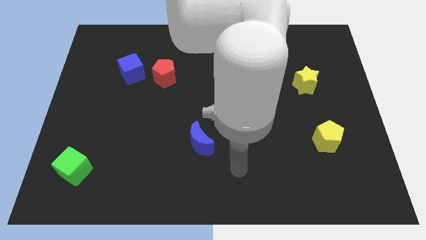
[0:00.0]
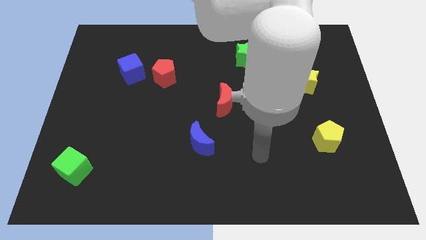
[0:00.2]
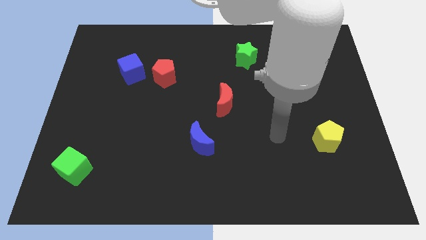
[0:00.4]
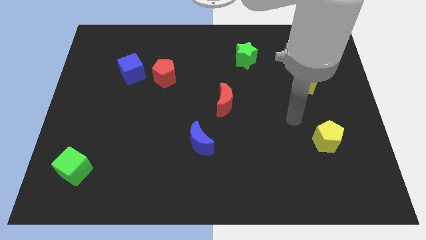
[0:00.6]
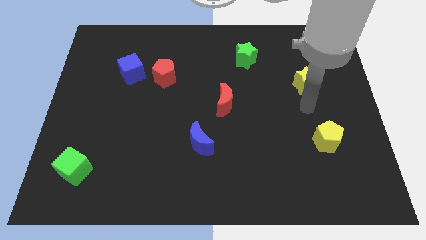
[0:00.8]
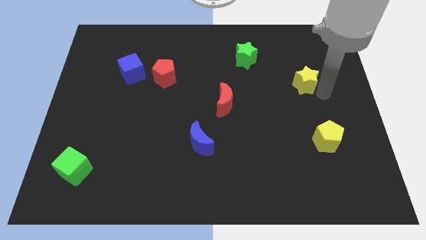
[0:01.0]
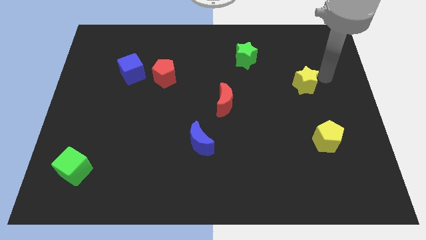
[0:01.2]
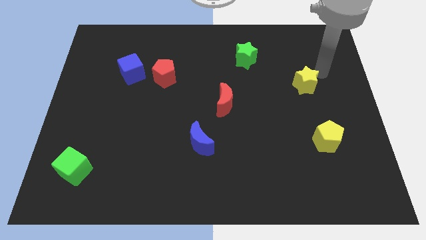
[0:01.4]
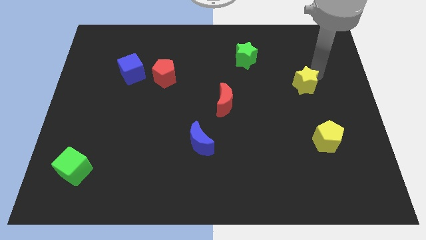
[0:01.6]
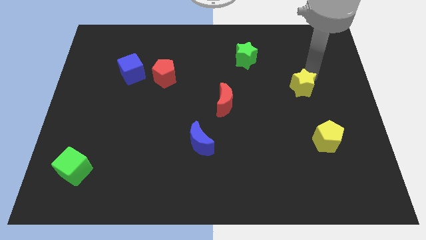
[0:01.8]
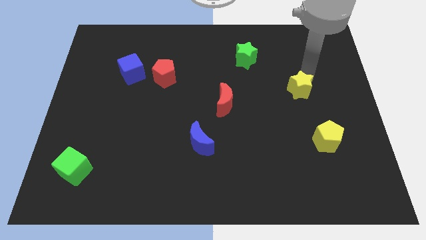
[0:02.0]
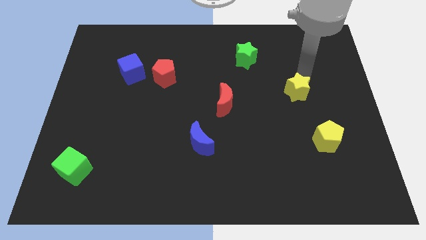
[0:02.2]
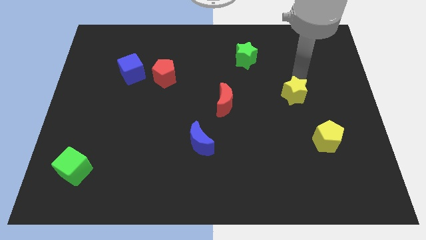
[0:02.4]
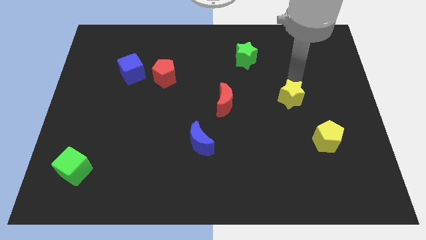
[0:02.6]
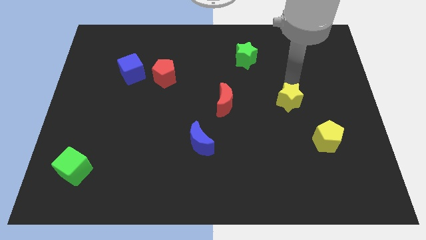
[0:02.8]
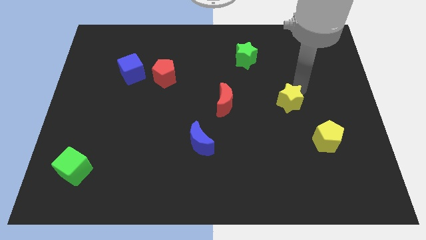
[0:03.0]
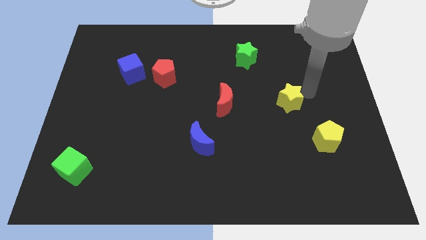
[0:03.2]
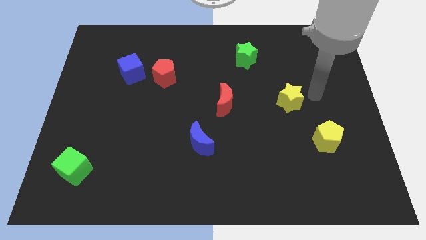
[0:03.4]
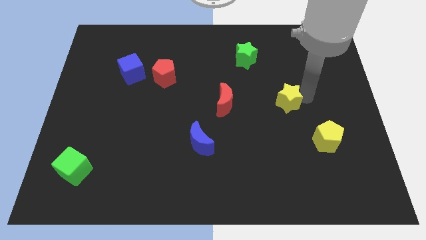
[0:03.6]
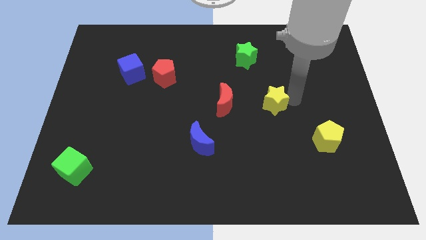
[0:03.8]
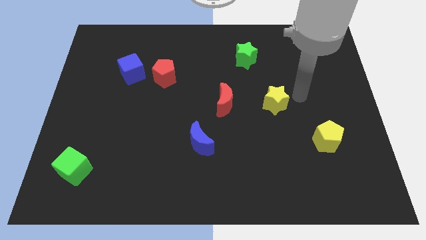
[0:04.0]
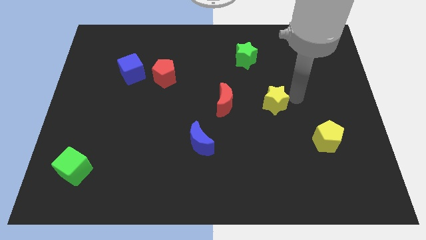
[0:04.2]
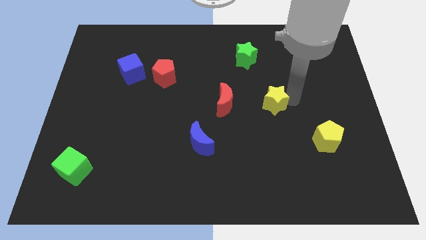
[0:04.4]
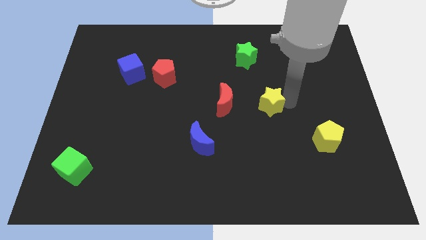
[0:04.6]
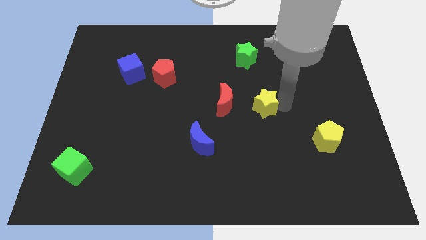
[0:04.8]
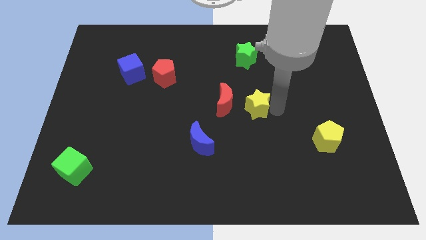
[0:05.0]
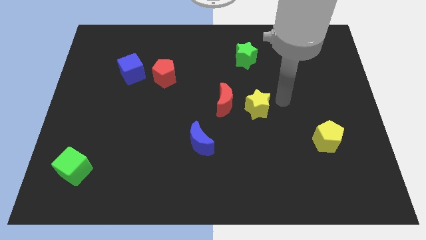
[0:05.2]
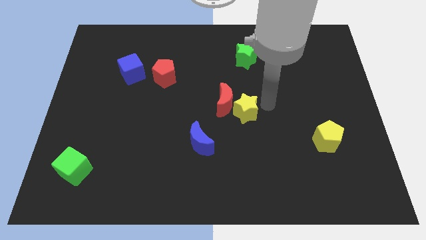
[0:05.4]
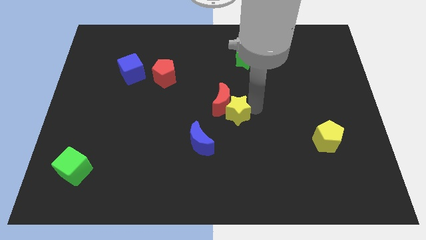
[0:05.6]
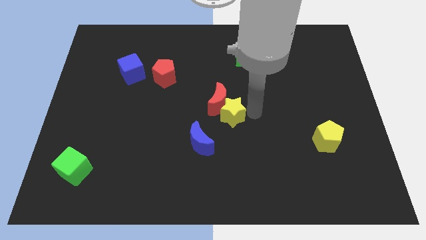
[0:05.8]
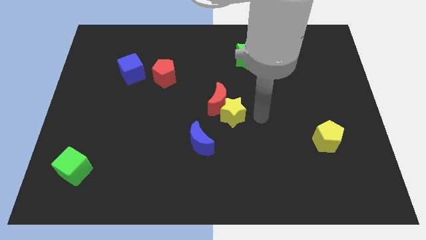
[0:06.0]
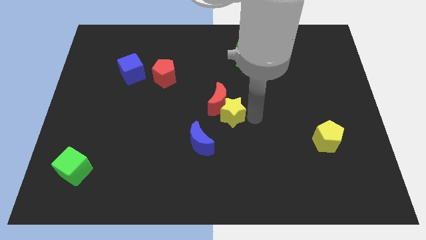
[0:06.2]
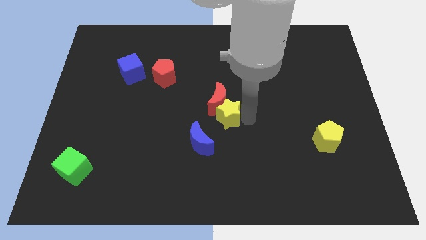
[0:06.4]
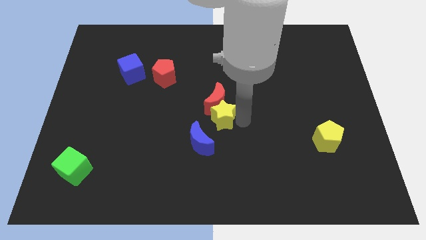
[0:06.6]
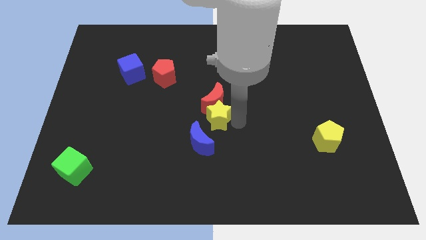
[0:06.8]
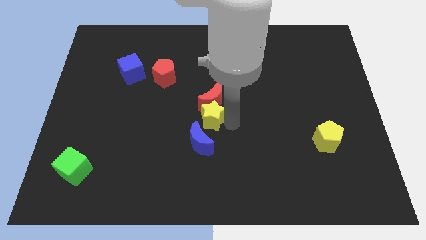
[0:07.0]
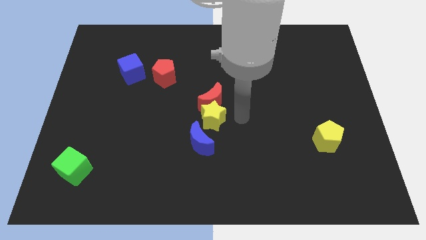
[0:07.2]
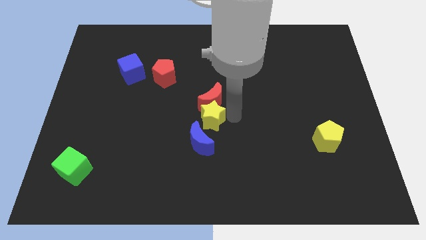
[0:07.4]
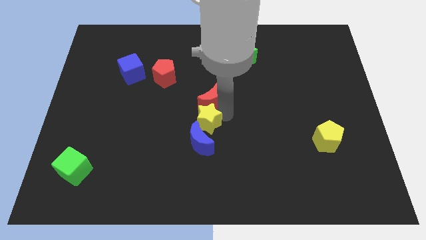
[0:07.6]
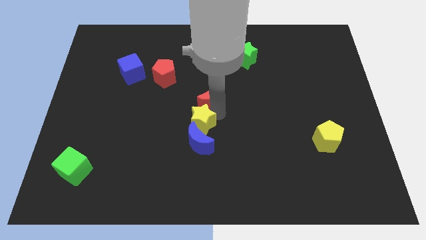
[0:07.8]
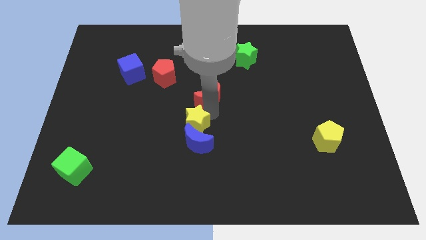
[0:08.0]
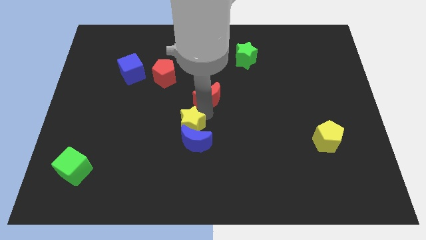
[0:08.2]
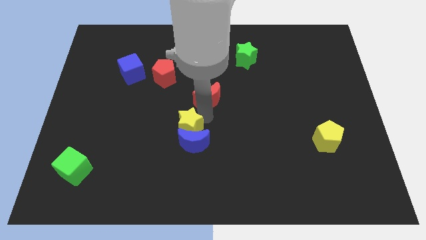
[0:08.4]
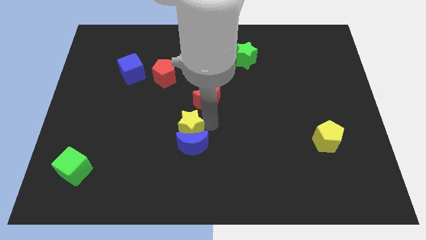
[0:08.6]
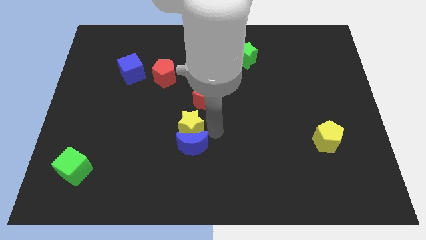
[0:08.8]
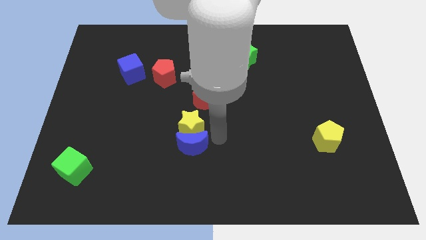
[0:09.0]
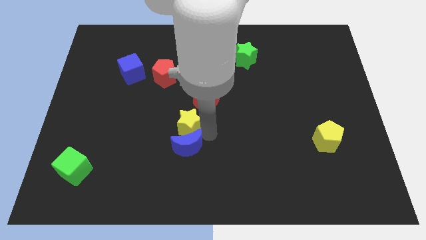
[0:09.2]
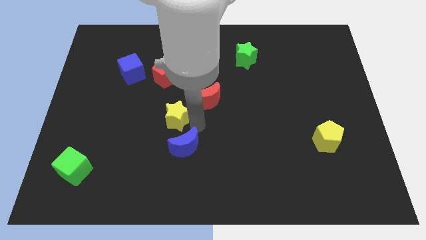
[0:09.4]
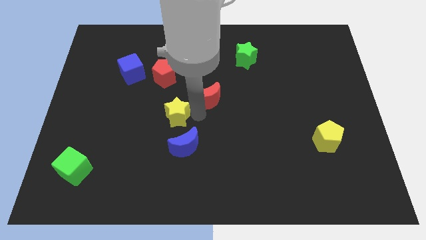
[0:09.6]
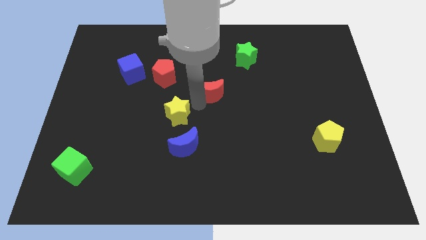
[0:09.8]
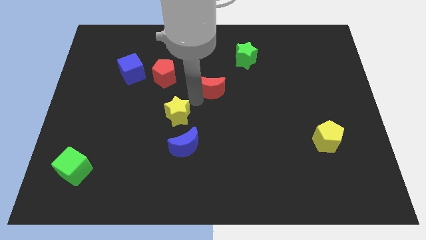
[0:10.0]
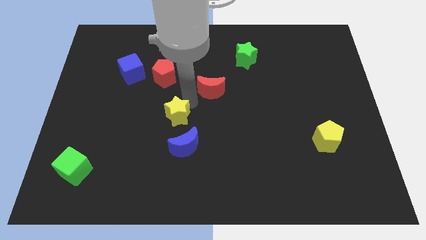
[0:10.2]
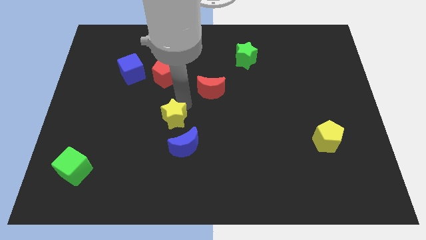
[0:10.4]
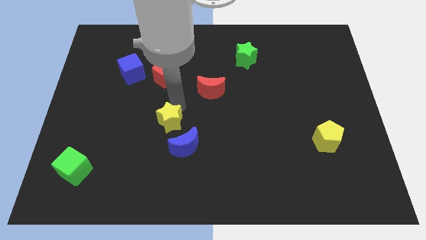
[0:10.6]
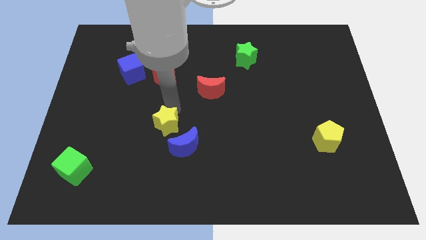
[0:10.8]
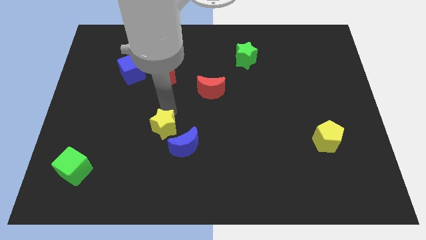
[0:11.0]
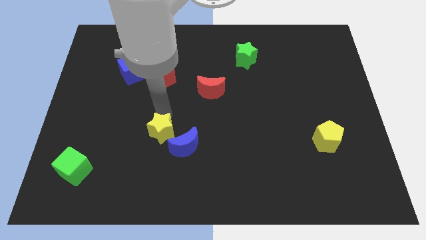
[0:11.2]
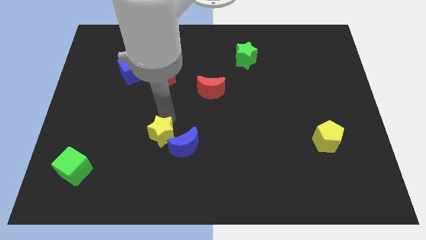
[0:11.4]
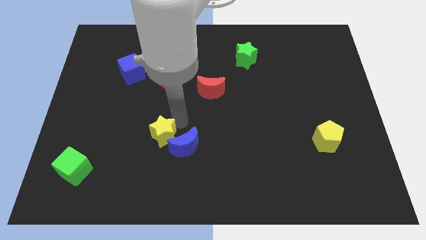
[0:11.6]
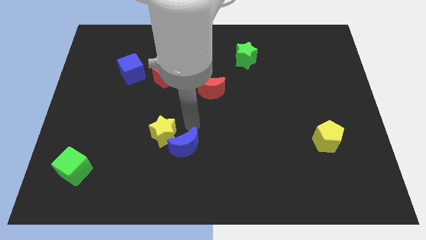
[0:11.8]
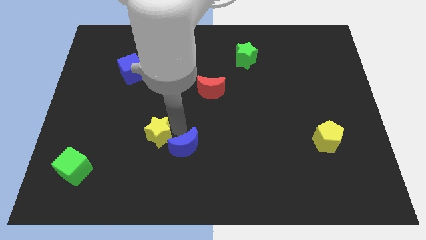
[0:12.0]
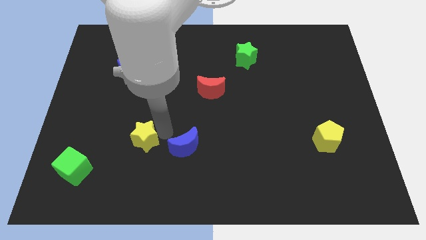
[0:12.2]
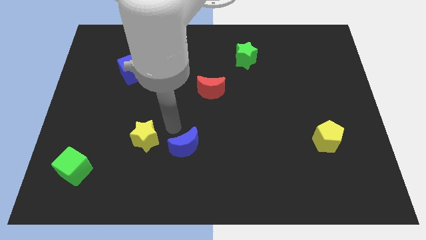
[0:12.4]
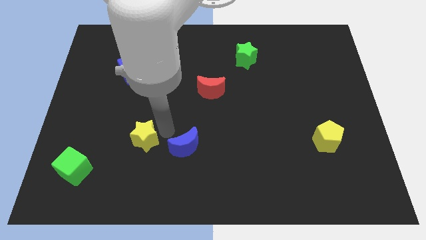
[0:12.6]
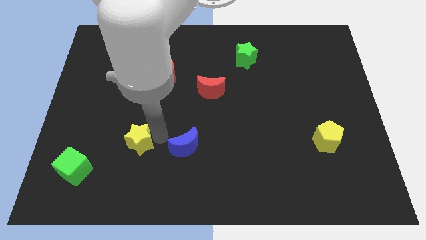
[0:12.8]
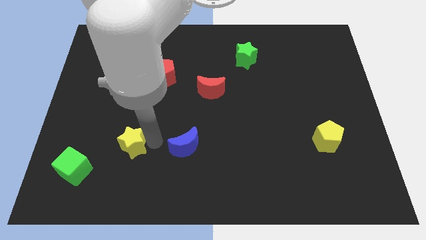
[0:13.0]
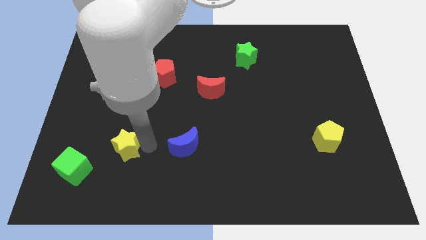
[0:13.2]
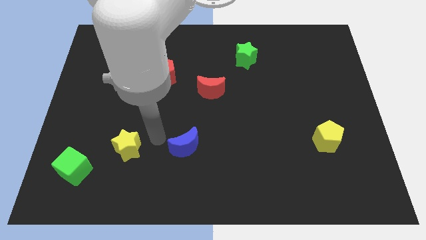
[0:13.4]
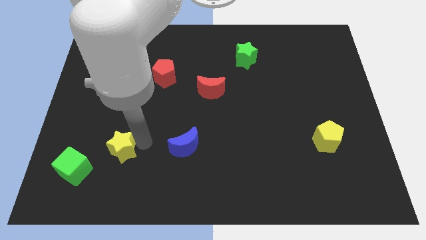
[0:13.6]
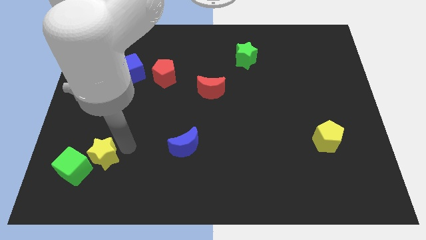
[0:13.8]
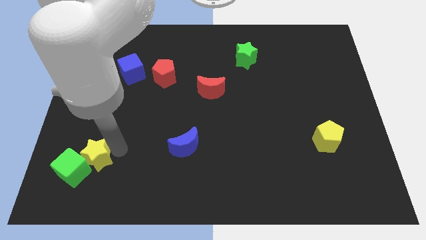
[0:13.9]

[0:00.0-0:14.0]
push the yellow star close to the green cube

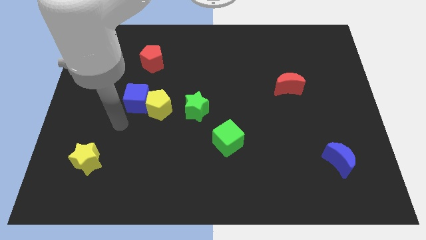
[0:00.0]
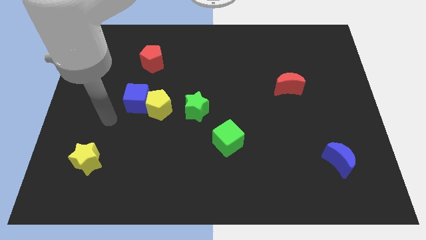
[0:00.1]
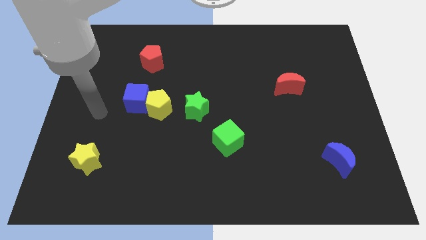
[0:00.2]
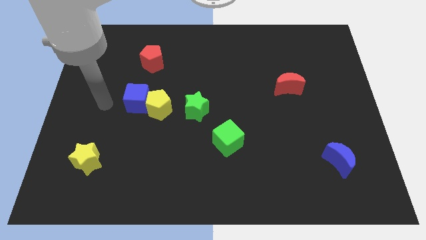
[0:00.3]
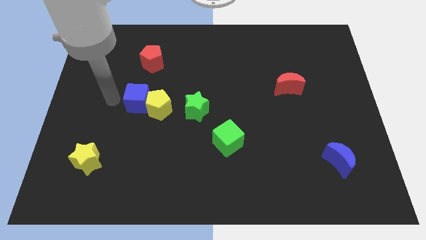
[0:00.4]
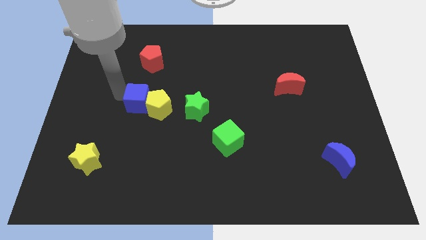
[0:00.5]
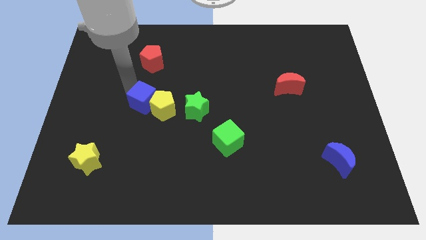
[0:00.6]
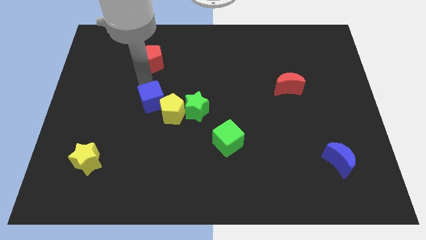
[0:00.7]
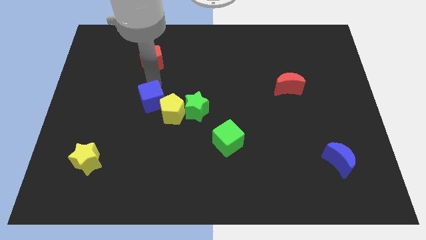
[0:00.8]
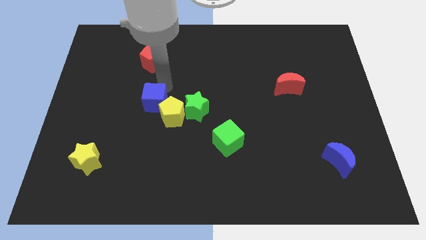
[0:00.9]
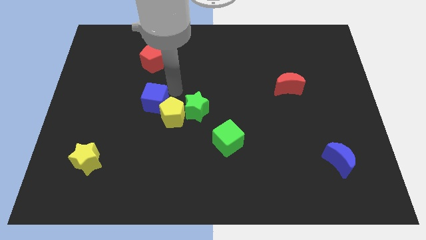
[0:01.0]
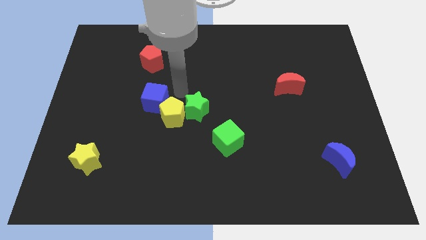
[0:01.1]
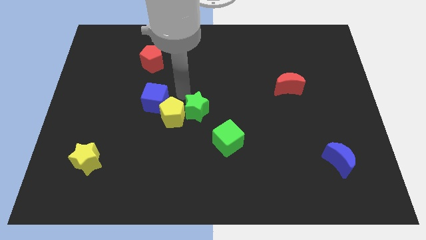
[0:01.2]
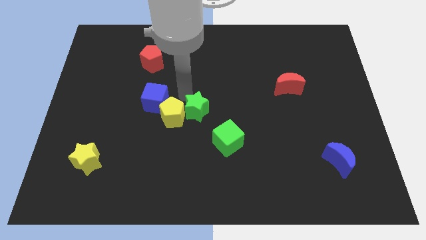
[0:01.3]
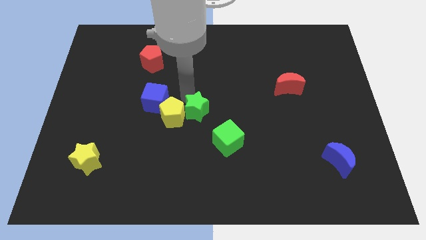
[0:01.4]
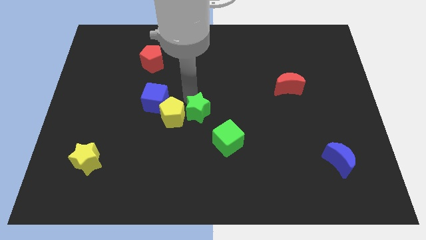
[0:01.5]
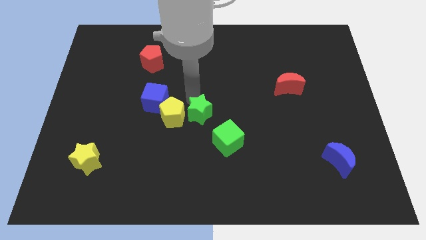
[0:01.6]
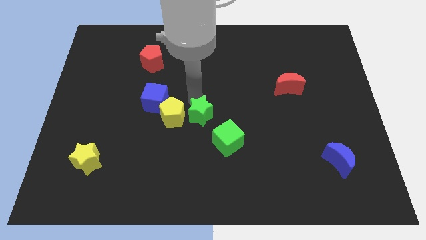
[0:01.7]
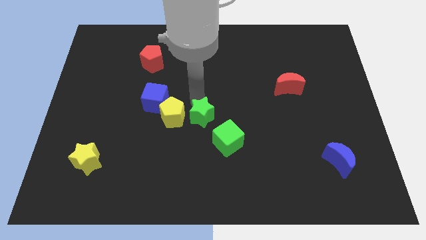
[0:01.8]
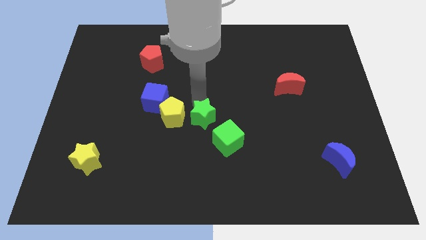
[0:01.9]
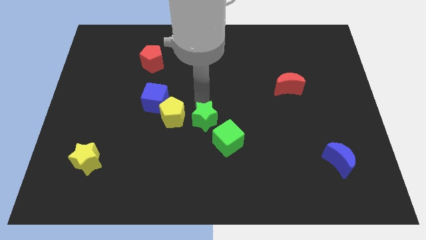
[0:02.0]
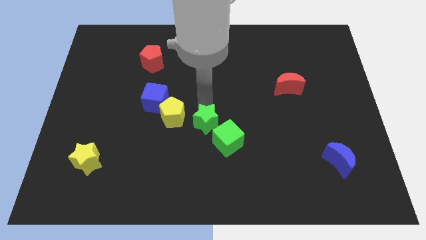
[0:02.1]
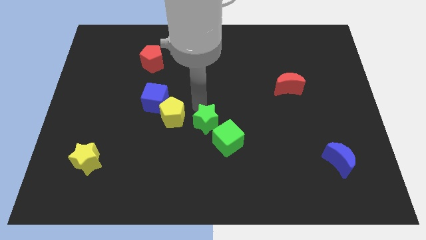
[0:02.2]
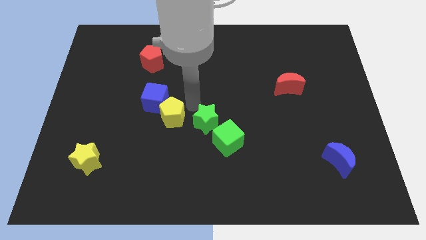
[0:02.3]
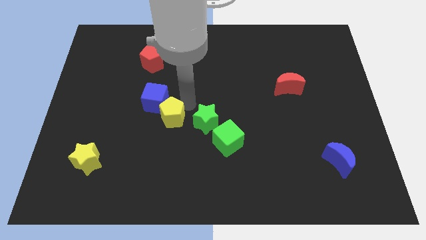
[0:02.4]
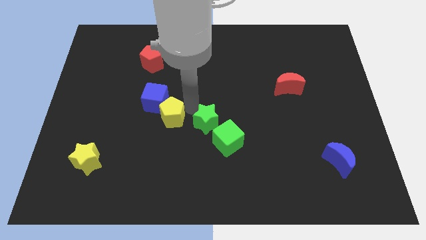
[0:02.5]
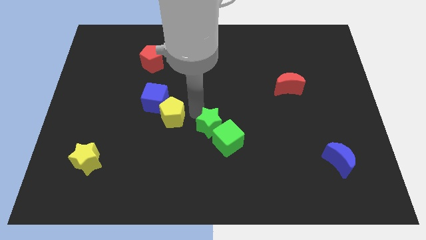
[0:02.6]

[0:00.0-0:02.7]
put the green star towards the green cube
